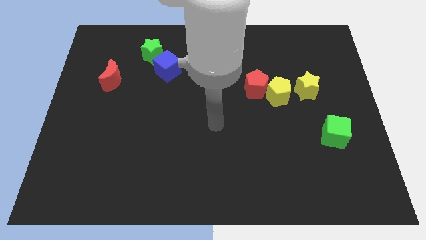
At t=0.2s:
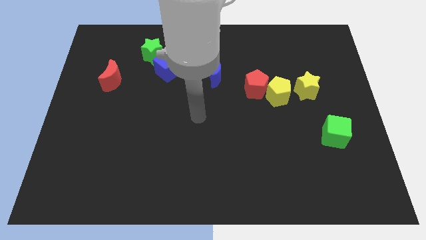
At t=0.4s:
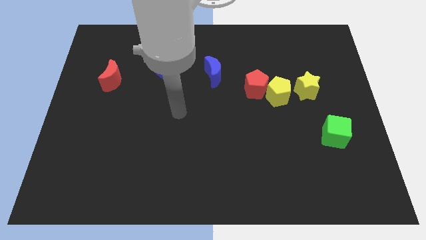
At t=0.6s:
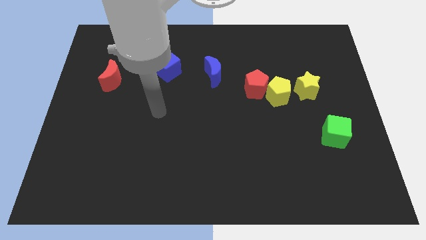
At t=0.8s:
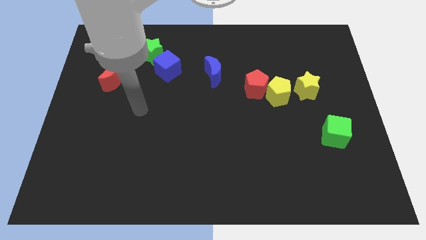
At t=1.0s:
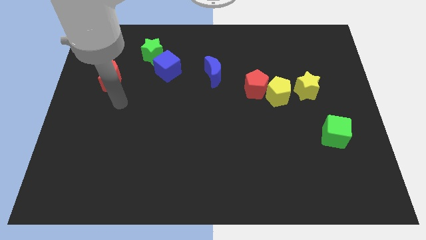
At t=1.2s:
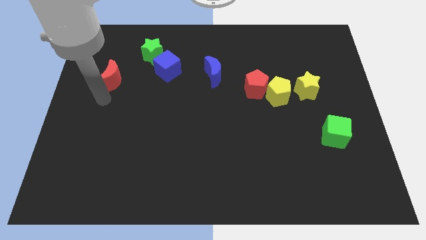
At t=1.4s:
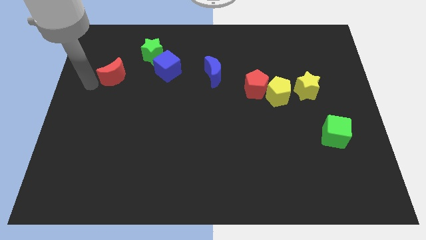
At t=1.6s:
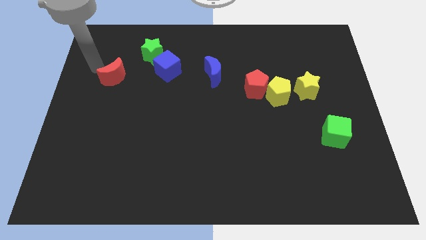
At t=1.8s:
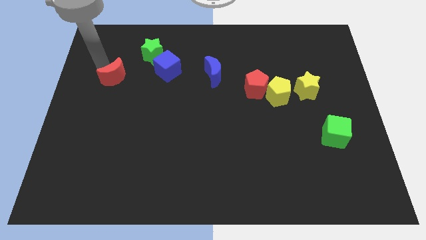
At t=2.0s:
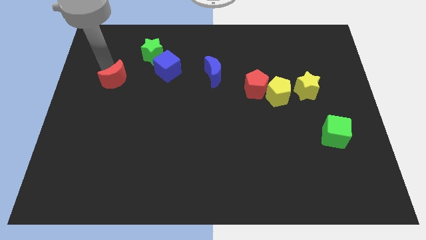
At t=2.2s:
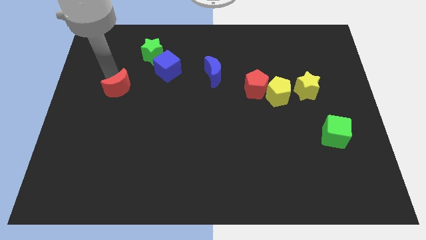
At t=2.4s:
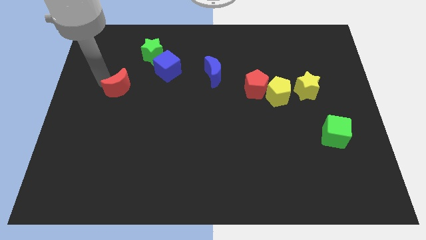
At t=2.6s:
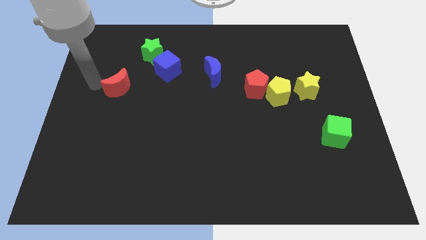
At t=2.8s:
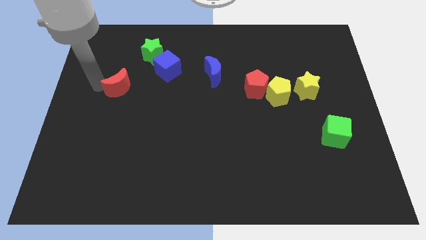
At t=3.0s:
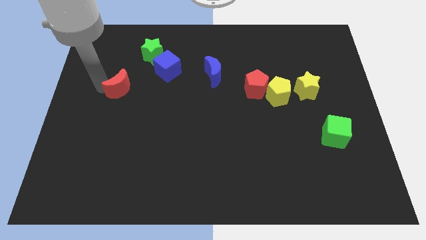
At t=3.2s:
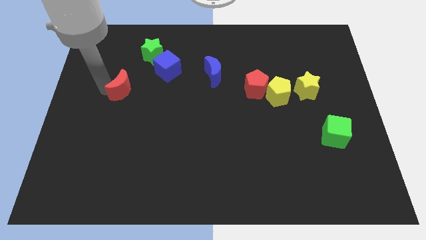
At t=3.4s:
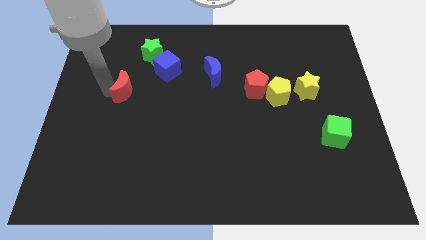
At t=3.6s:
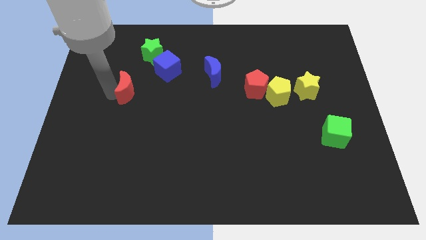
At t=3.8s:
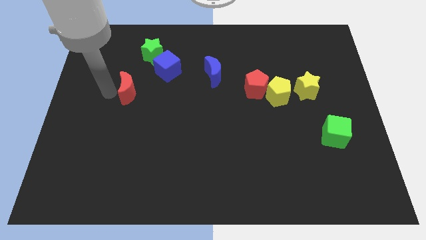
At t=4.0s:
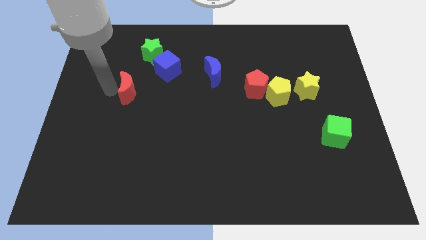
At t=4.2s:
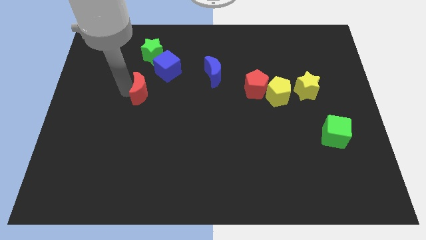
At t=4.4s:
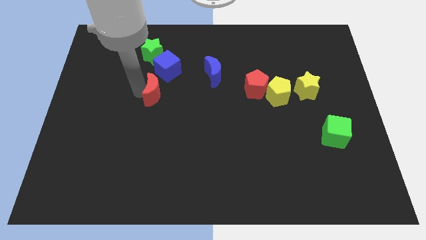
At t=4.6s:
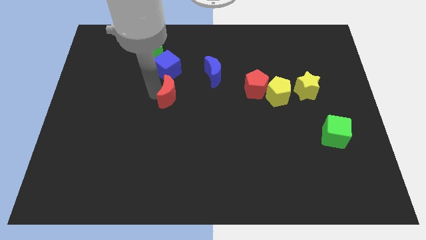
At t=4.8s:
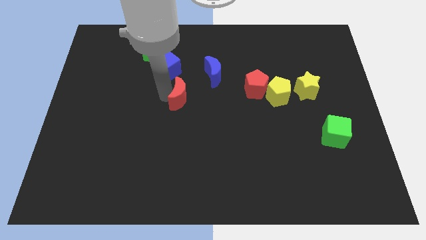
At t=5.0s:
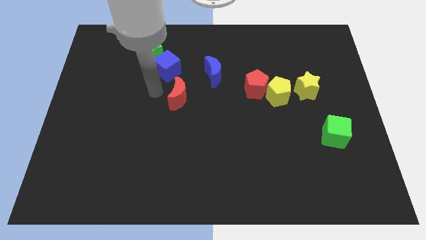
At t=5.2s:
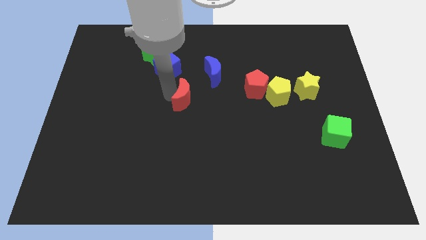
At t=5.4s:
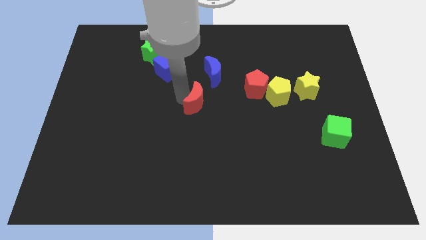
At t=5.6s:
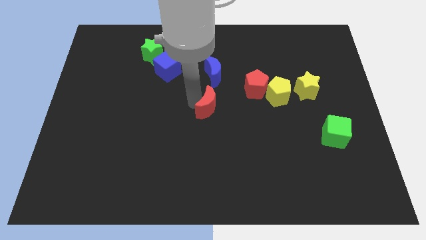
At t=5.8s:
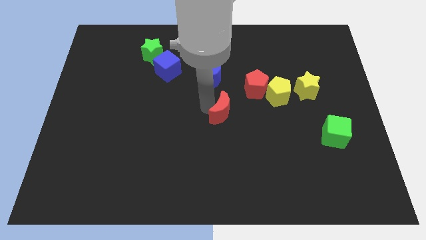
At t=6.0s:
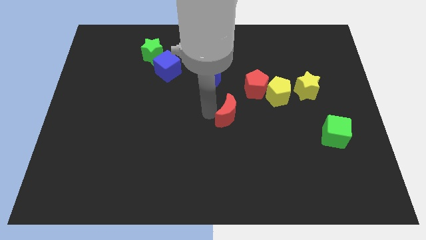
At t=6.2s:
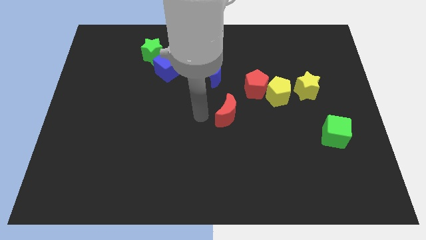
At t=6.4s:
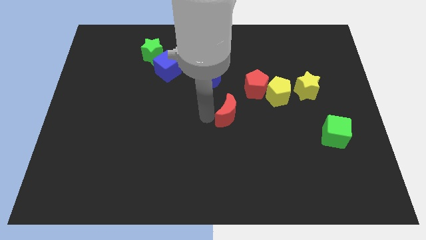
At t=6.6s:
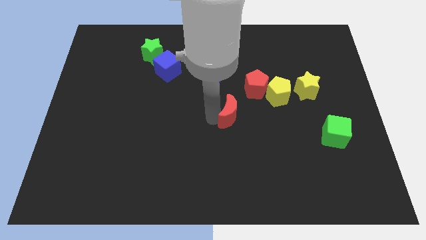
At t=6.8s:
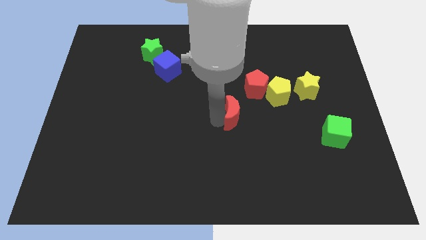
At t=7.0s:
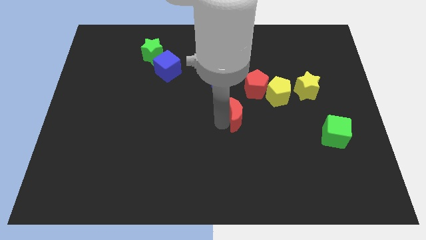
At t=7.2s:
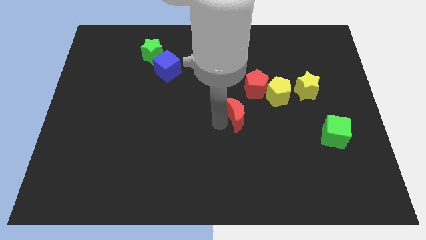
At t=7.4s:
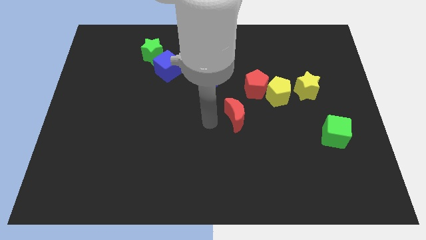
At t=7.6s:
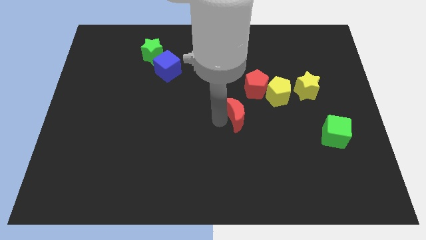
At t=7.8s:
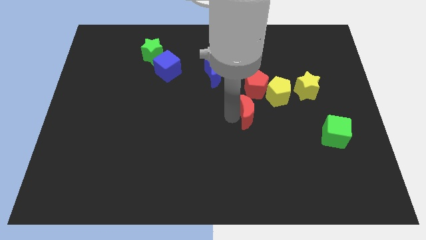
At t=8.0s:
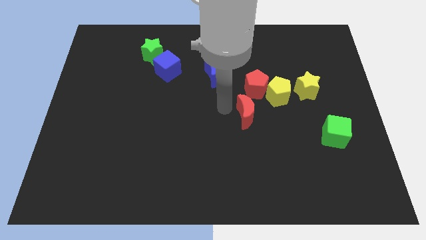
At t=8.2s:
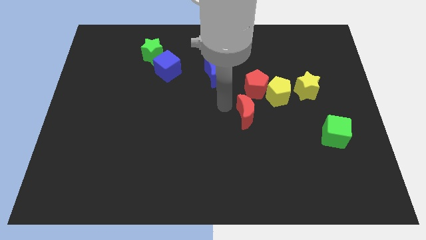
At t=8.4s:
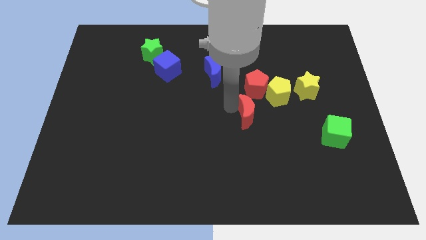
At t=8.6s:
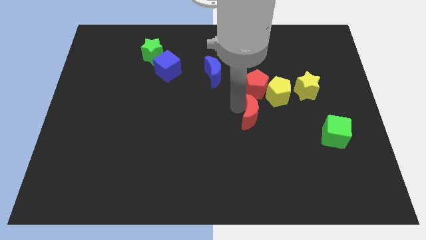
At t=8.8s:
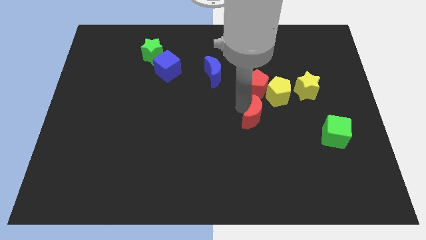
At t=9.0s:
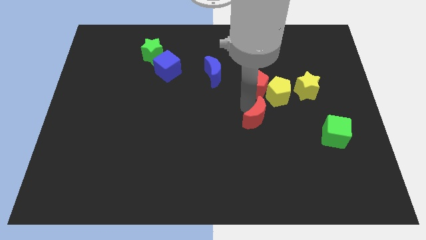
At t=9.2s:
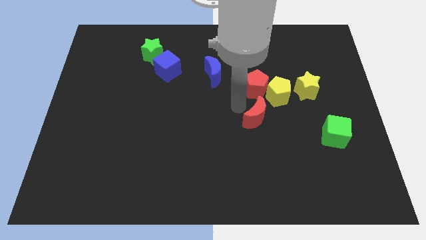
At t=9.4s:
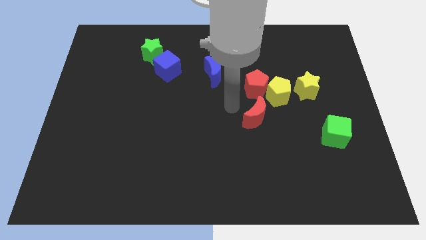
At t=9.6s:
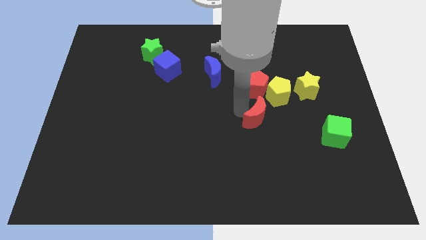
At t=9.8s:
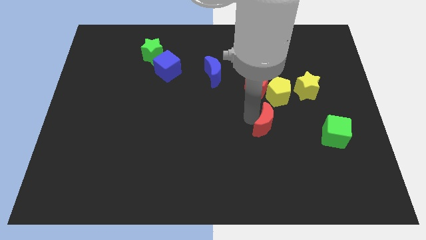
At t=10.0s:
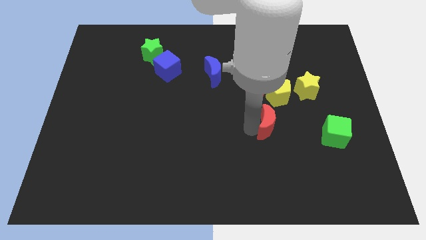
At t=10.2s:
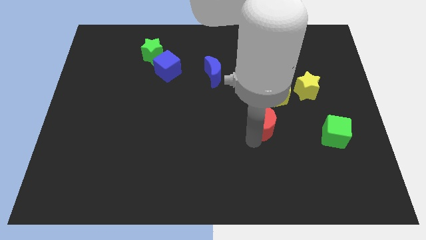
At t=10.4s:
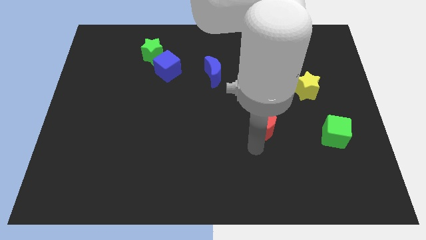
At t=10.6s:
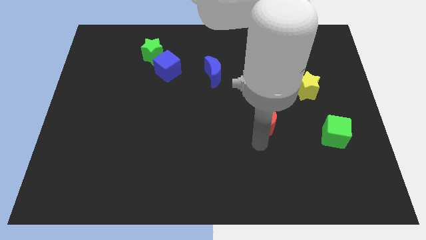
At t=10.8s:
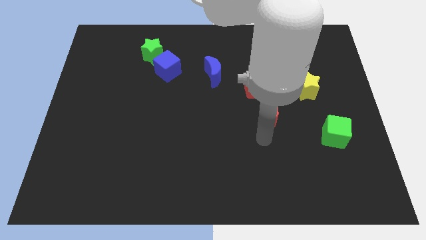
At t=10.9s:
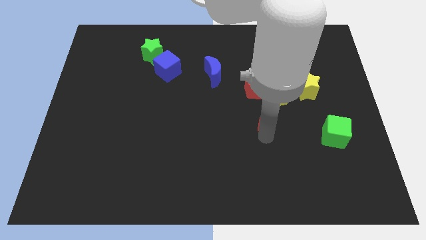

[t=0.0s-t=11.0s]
slide the red moon to the bottom right of the red pentagon

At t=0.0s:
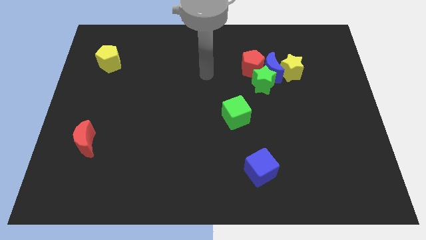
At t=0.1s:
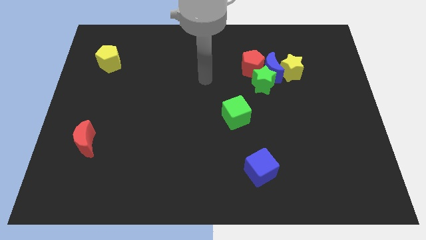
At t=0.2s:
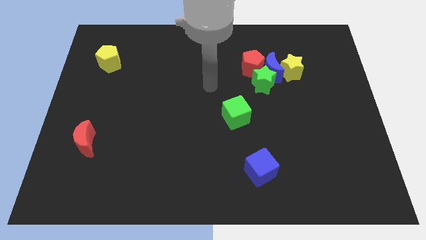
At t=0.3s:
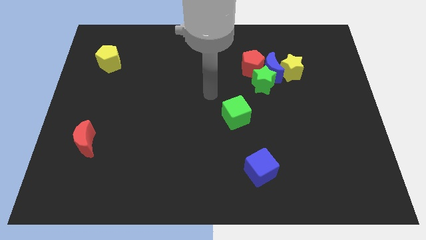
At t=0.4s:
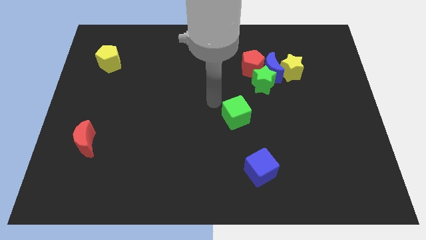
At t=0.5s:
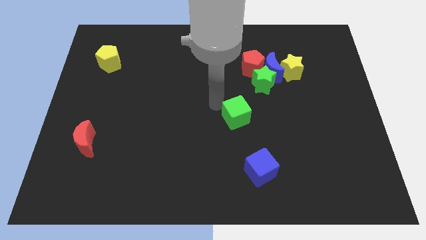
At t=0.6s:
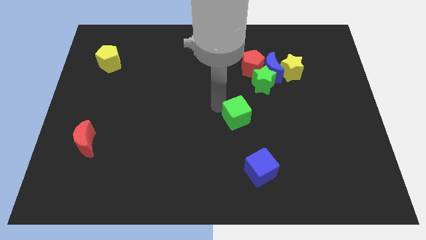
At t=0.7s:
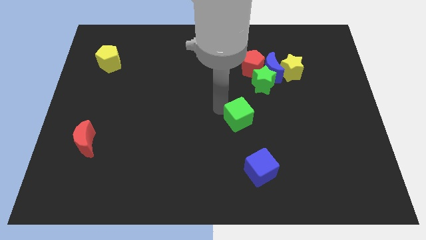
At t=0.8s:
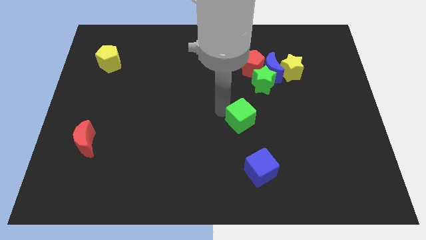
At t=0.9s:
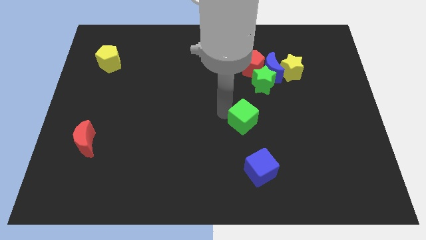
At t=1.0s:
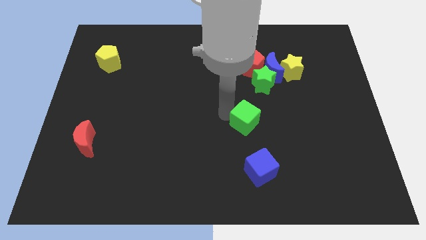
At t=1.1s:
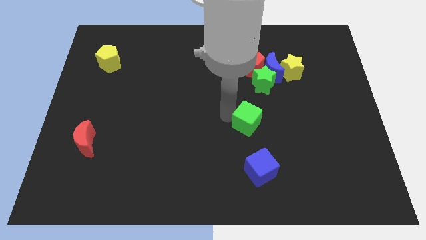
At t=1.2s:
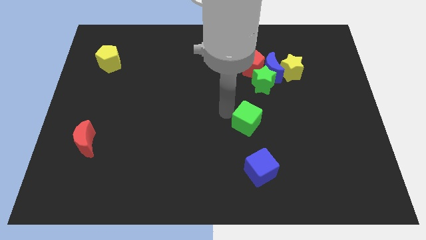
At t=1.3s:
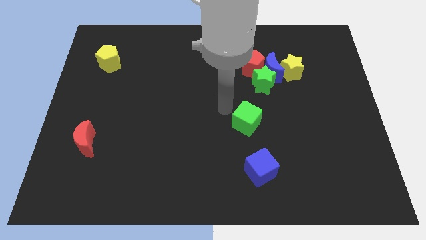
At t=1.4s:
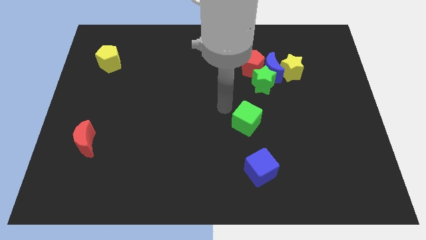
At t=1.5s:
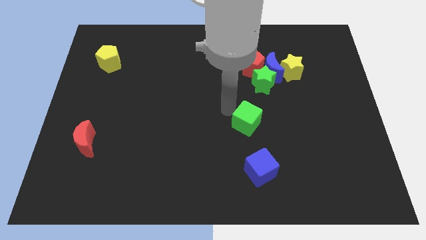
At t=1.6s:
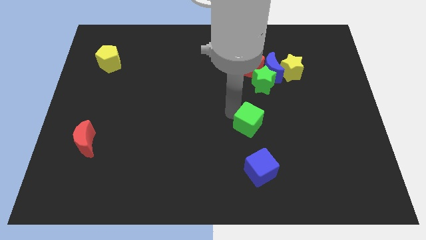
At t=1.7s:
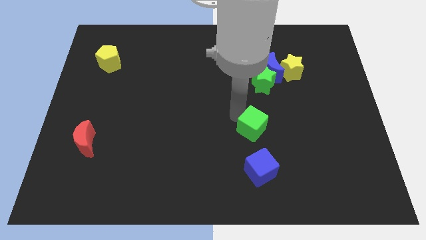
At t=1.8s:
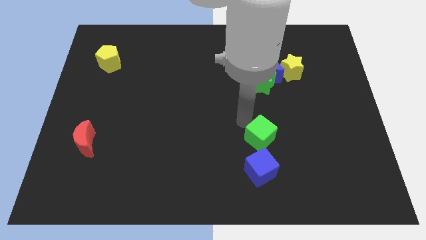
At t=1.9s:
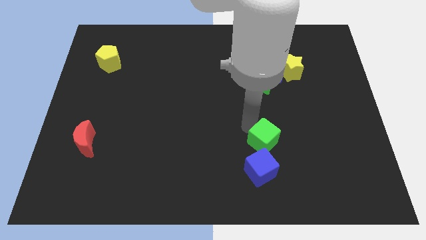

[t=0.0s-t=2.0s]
put the green cube to the top right side of the blue cube
